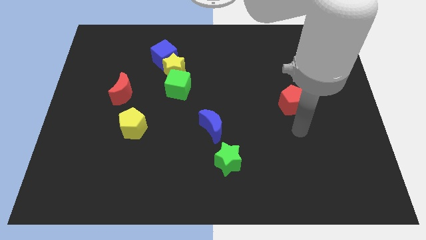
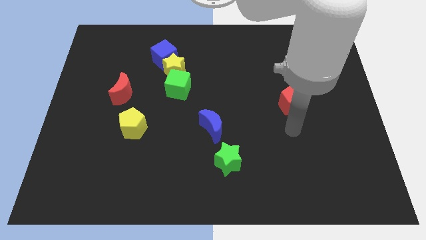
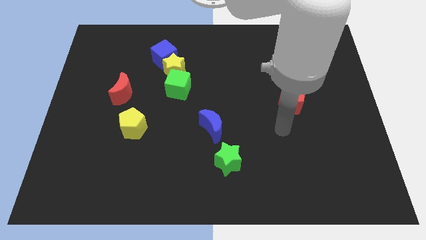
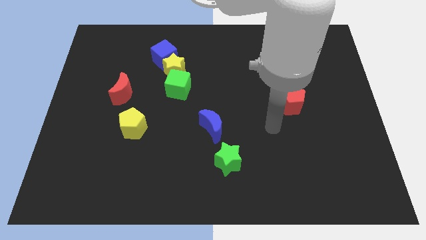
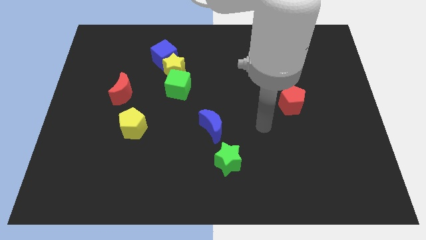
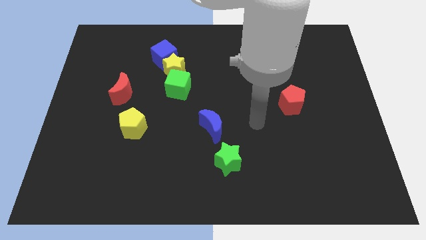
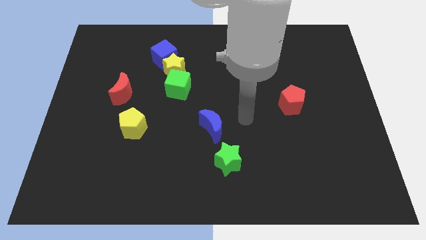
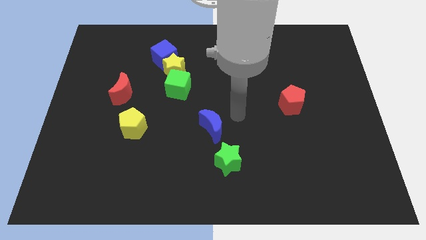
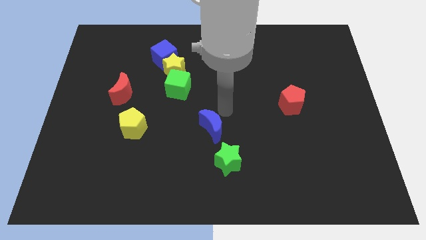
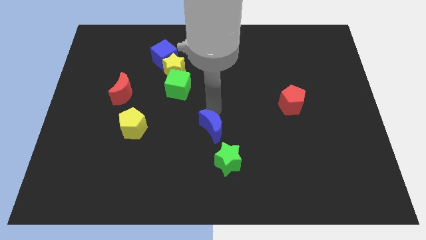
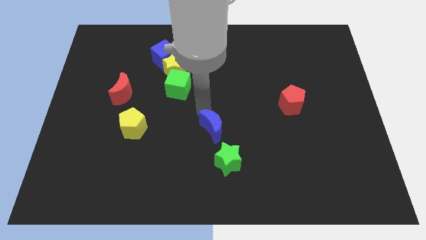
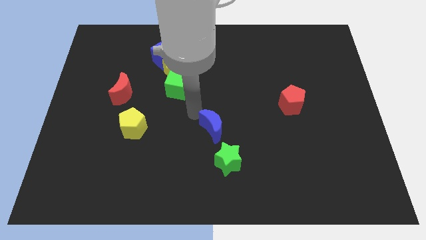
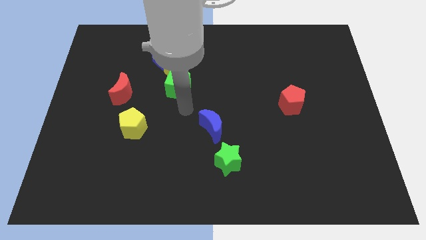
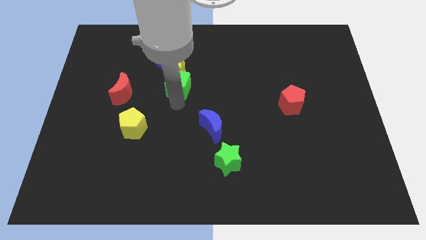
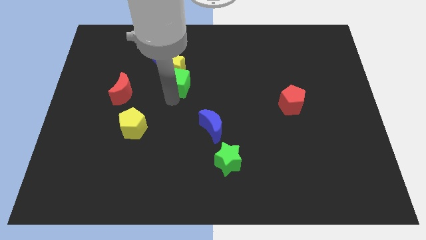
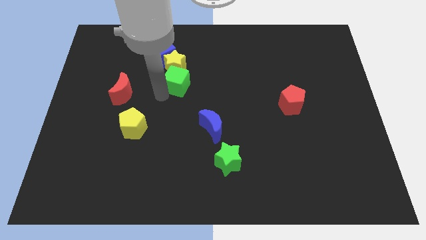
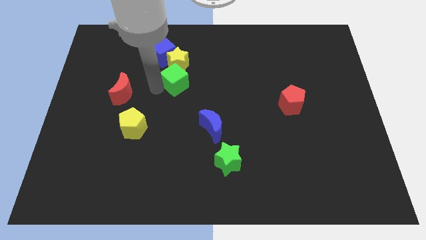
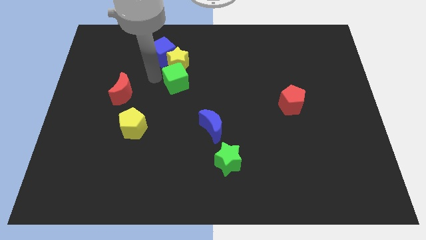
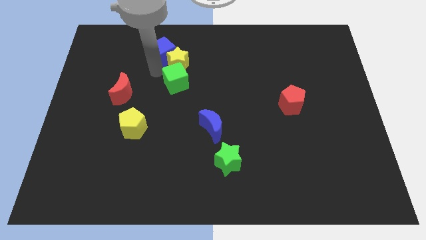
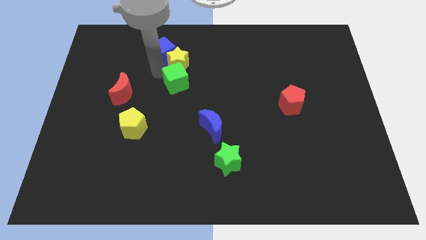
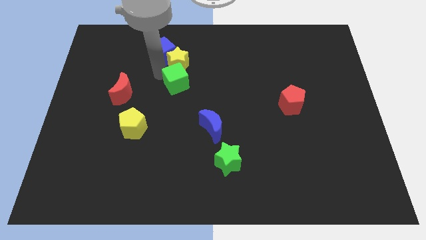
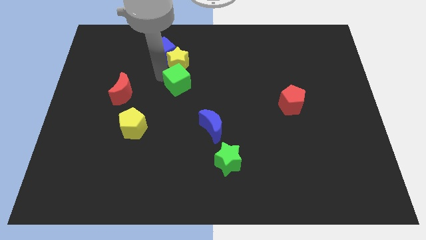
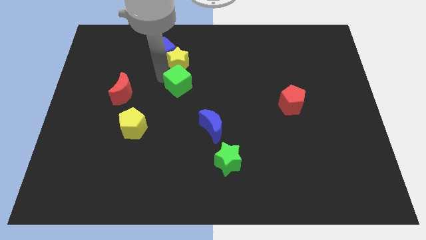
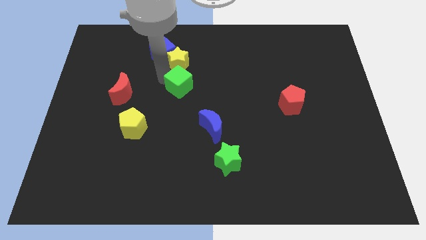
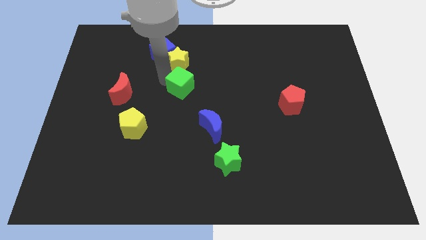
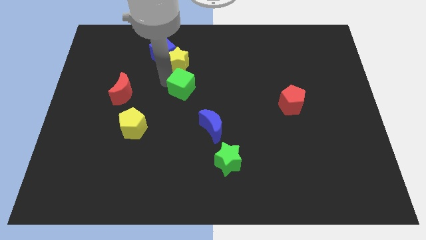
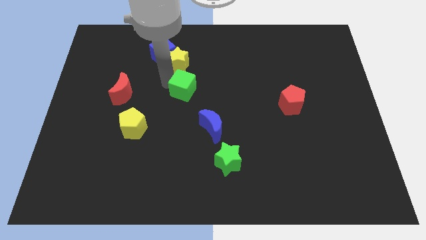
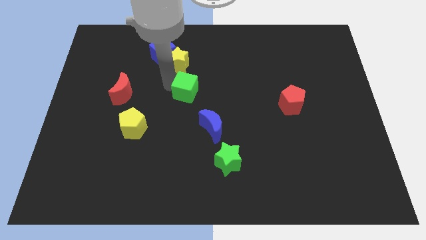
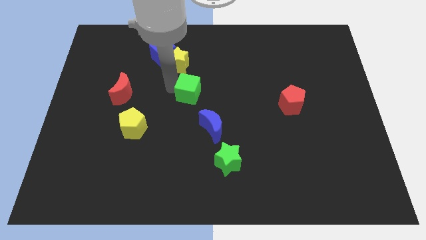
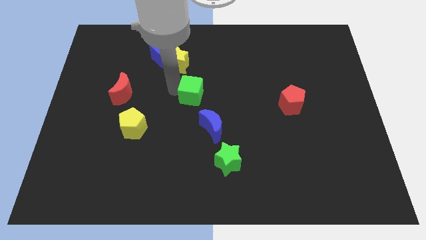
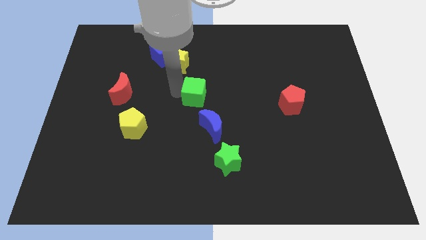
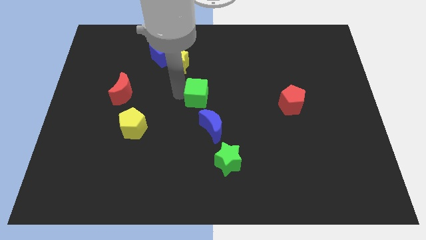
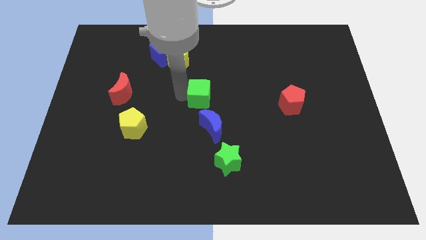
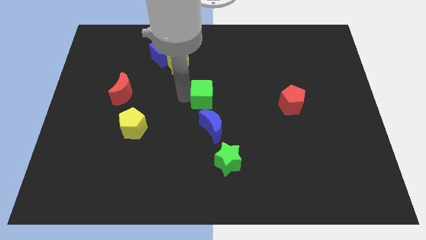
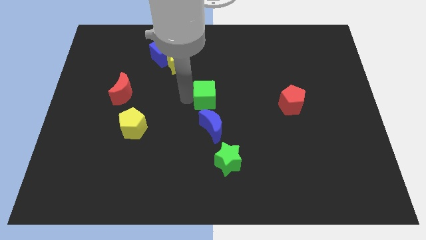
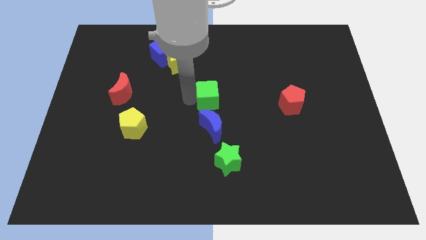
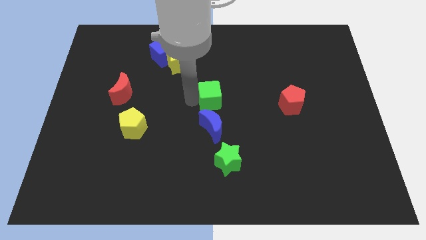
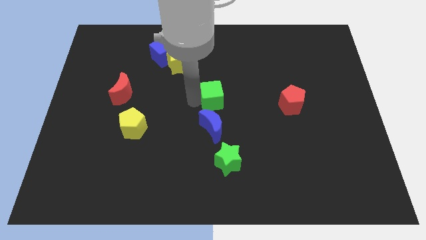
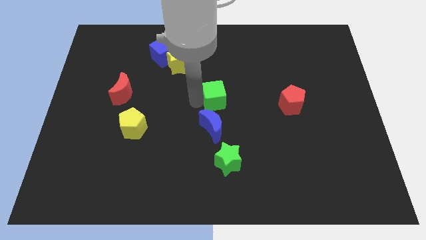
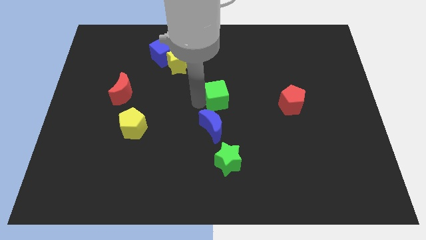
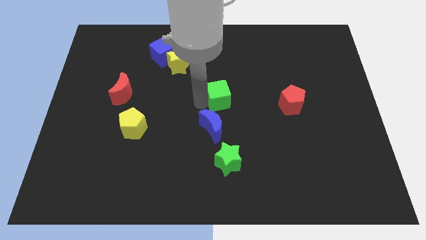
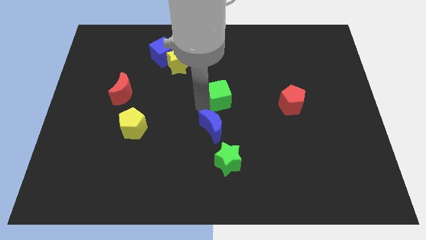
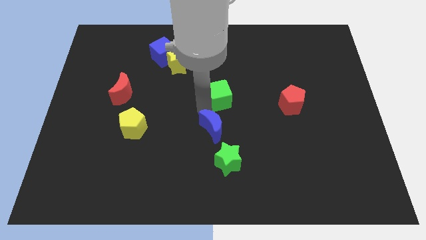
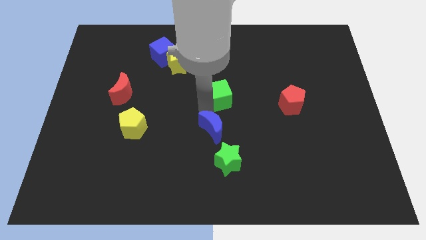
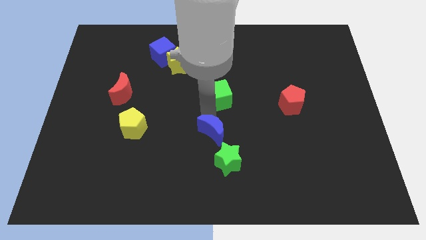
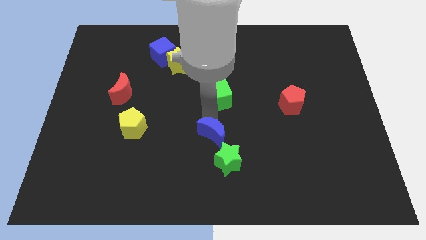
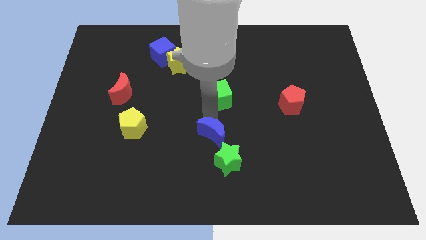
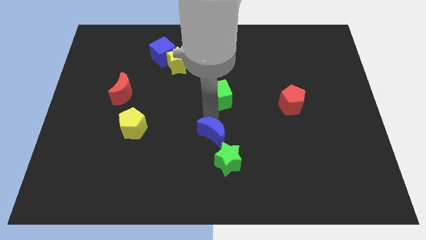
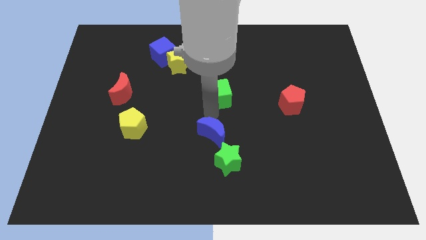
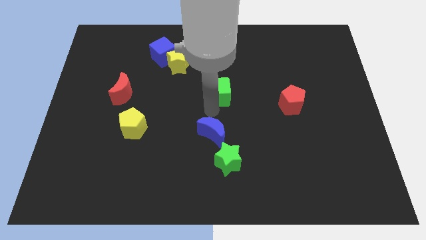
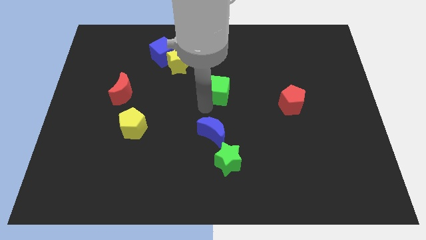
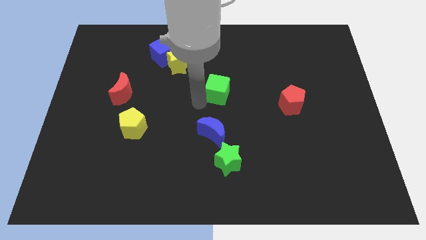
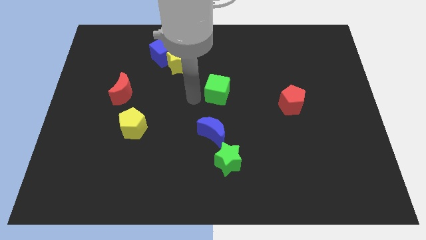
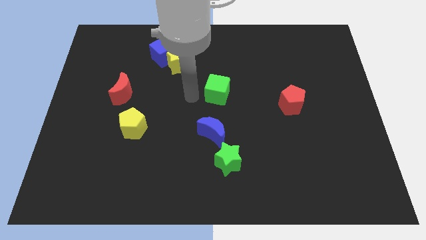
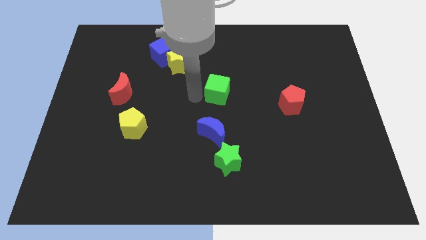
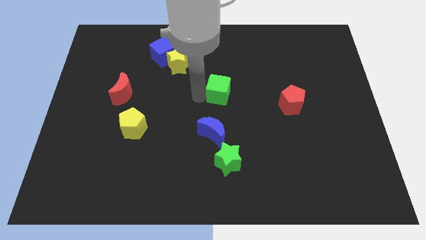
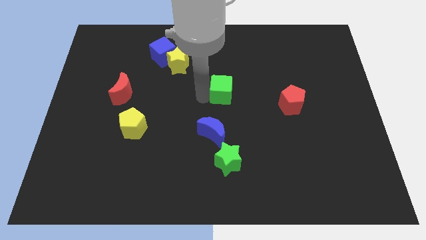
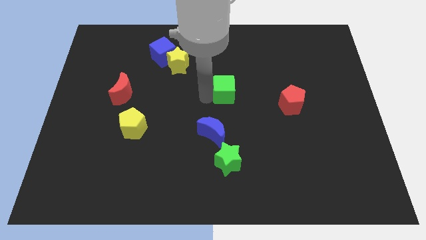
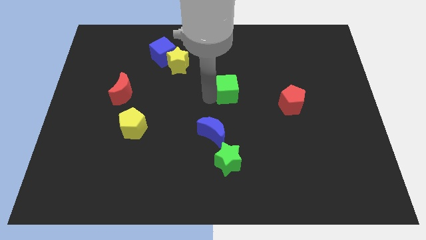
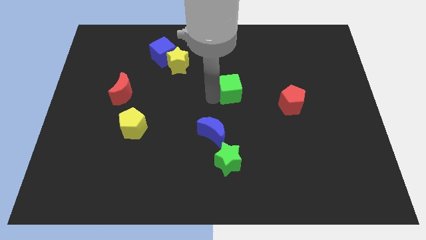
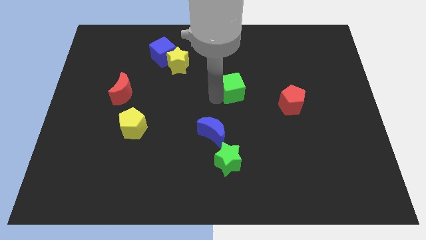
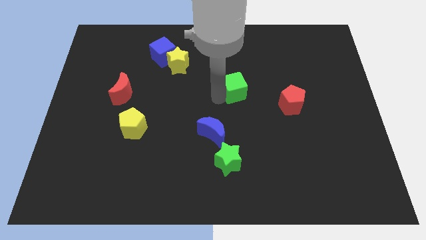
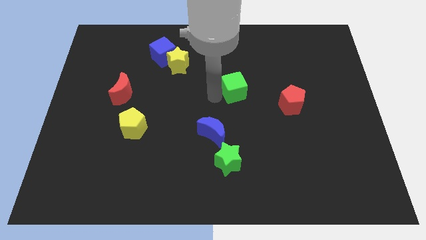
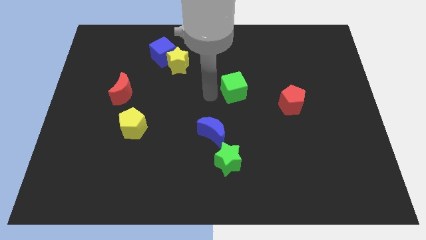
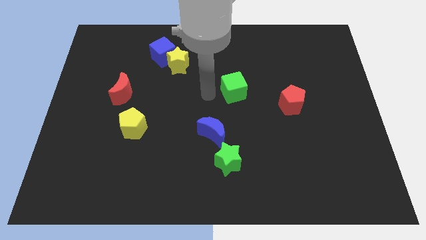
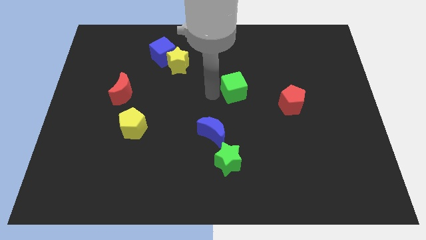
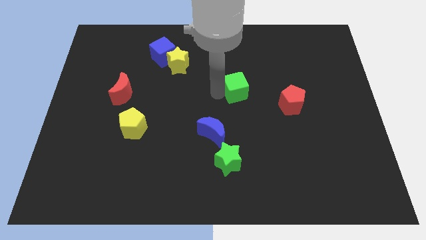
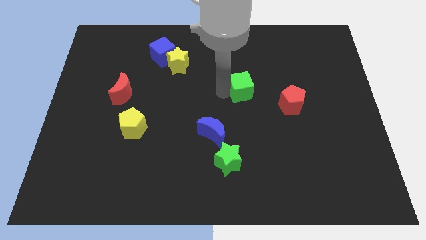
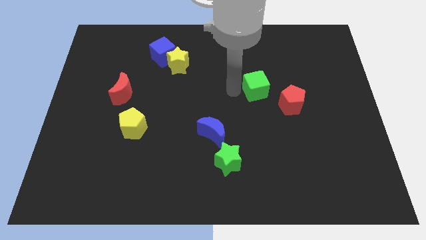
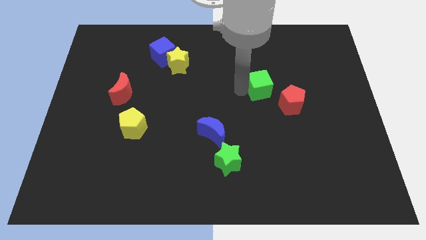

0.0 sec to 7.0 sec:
move the green cube to the right

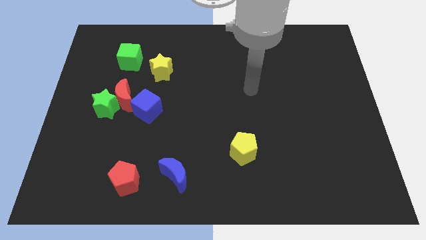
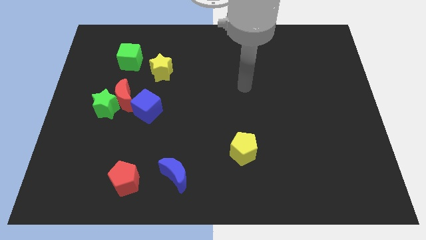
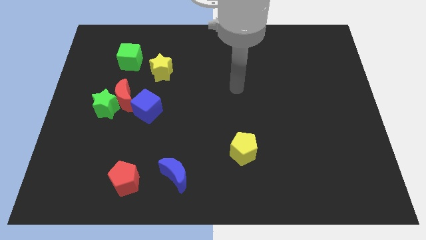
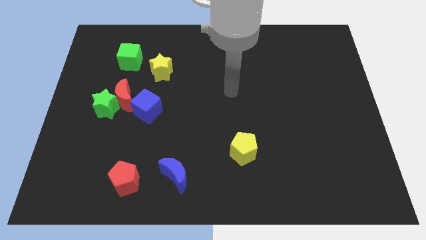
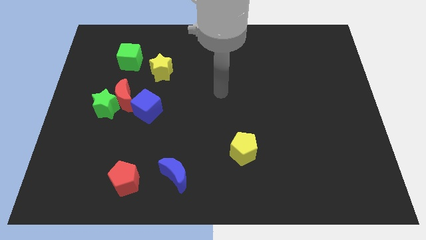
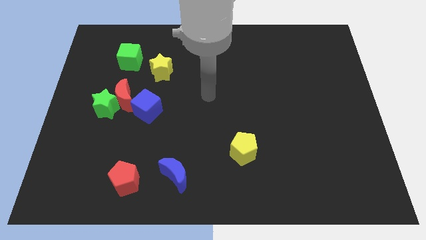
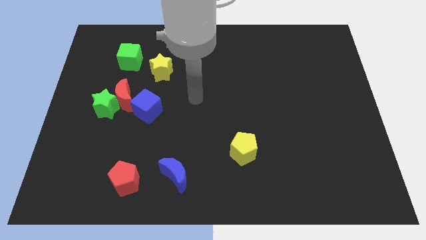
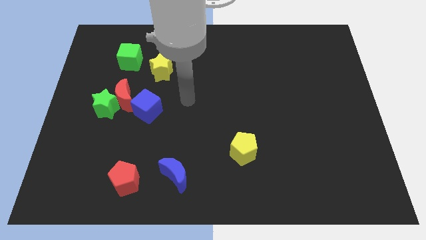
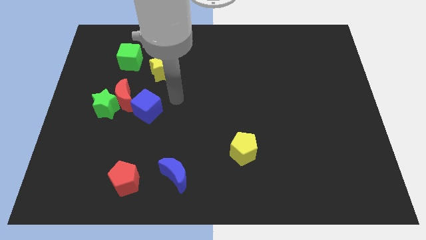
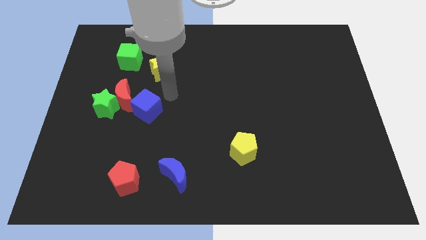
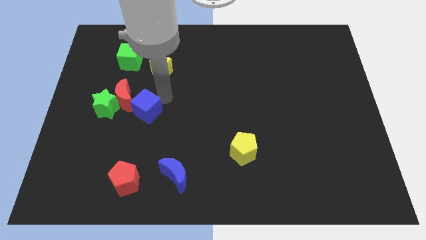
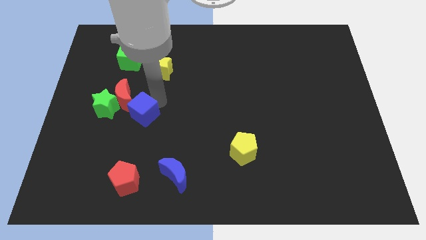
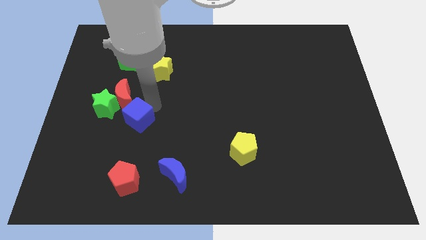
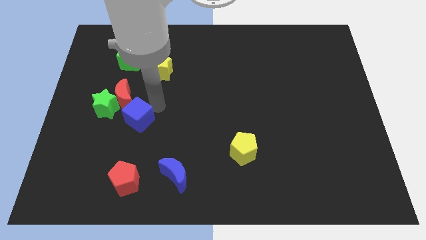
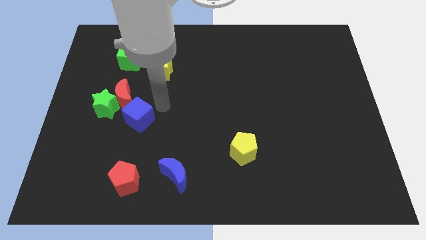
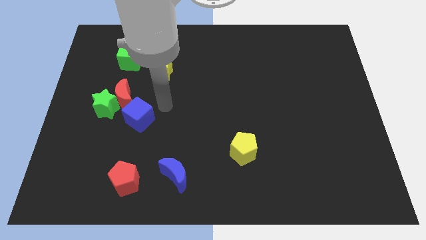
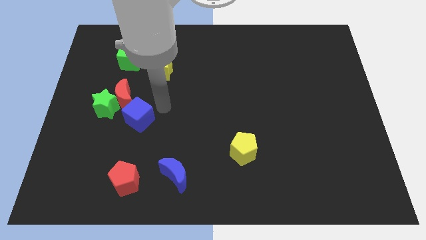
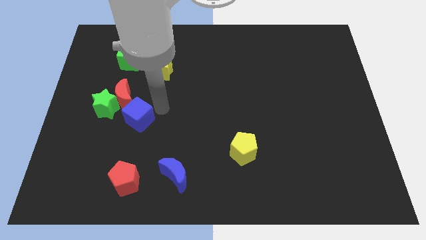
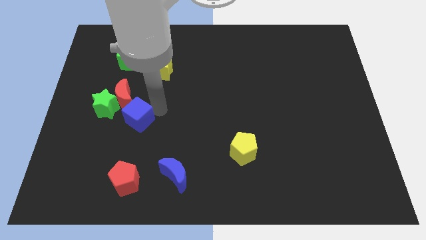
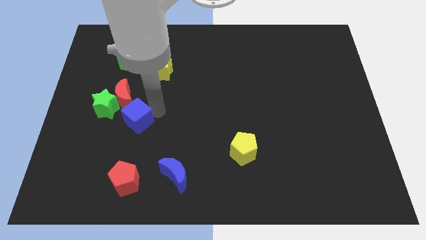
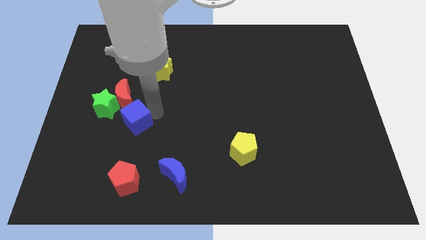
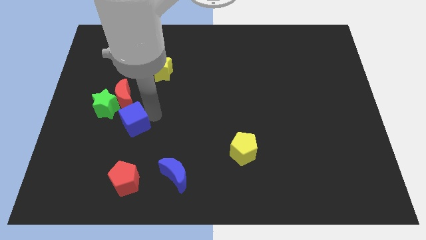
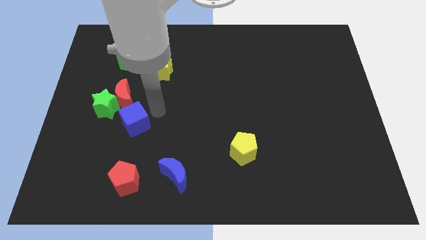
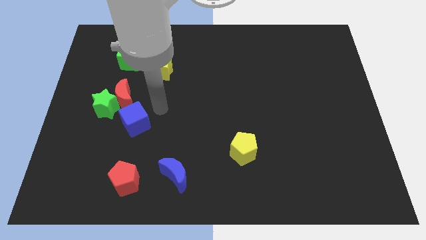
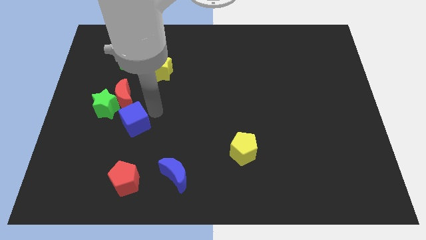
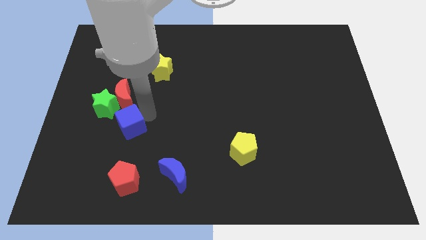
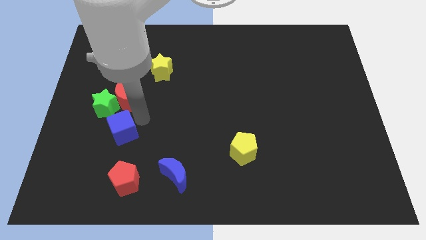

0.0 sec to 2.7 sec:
push the blue cube down and left somewhat
